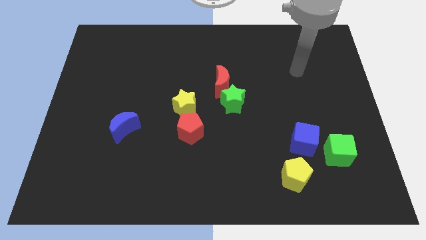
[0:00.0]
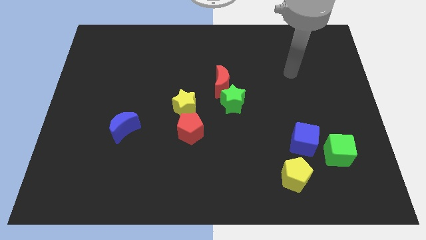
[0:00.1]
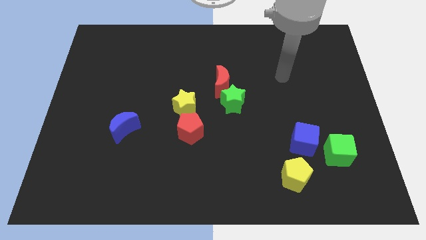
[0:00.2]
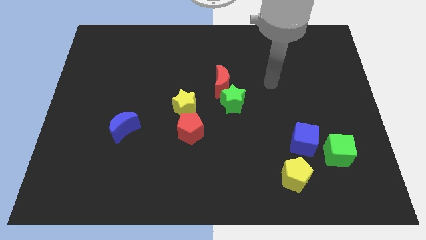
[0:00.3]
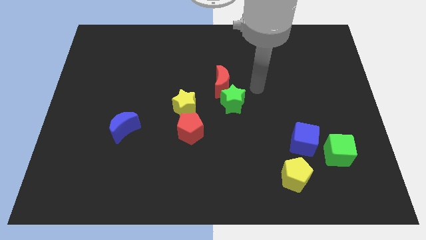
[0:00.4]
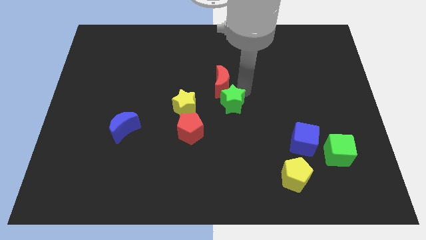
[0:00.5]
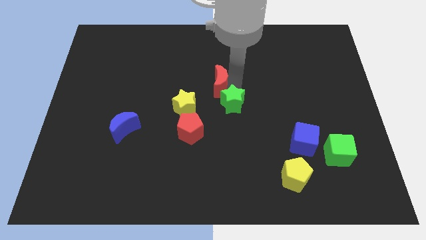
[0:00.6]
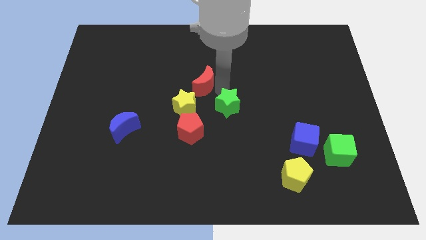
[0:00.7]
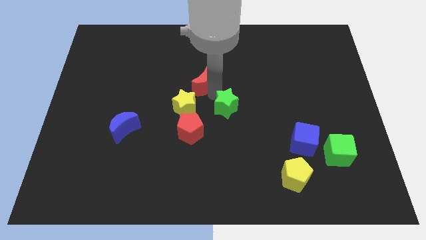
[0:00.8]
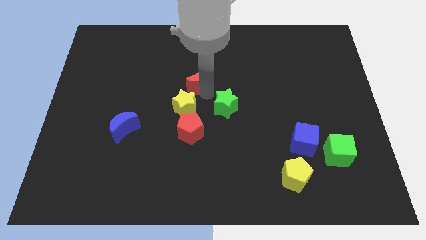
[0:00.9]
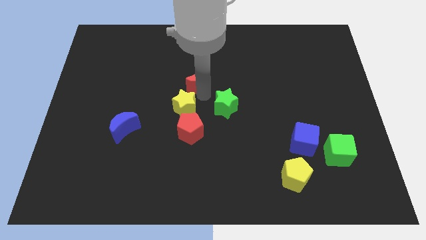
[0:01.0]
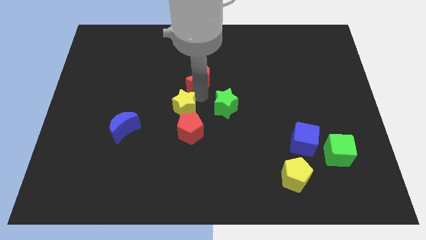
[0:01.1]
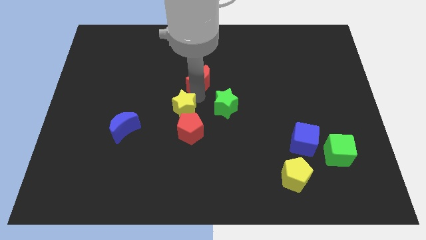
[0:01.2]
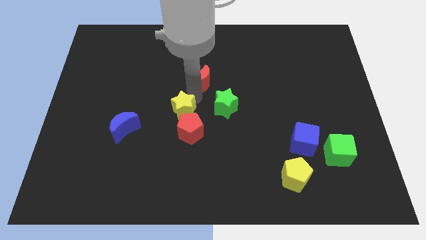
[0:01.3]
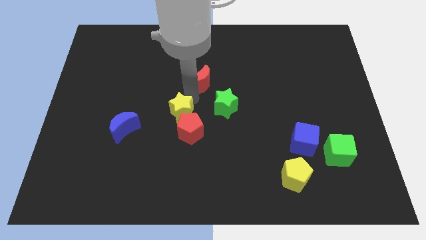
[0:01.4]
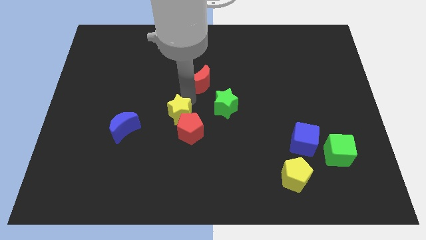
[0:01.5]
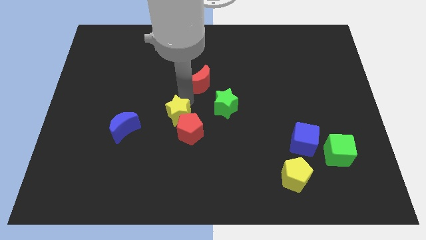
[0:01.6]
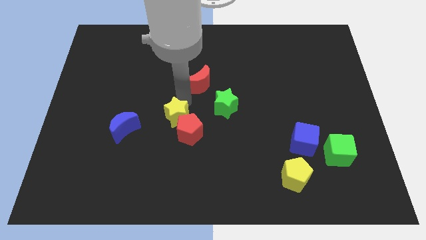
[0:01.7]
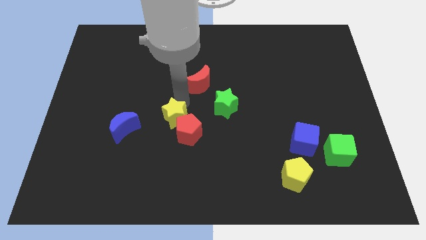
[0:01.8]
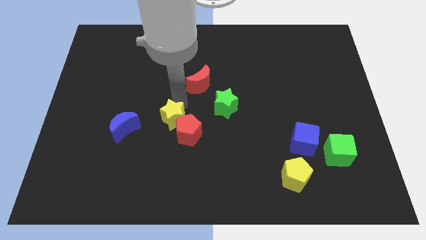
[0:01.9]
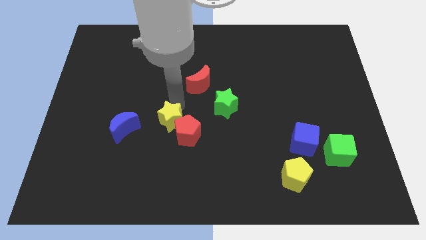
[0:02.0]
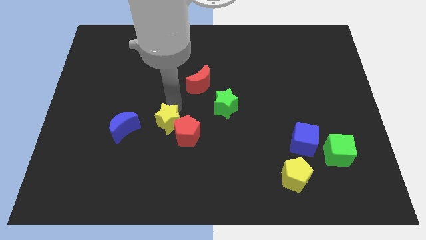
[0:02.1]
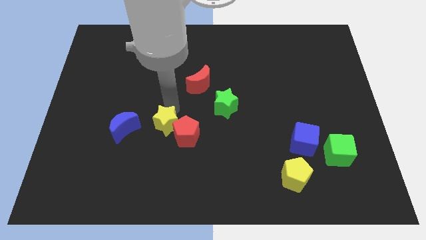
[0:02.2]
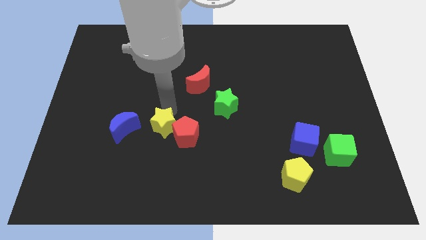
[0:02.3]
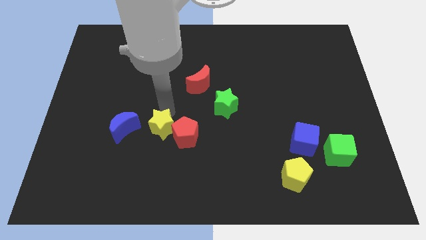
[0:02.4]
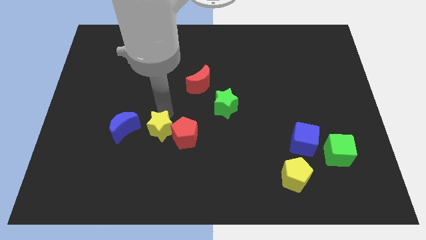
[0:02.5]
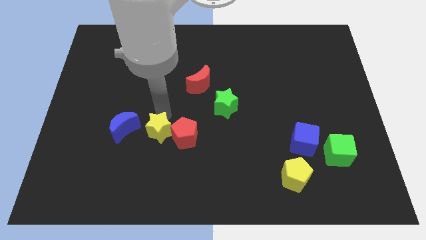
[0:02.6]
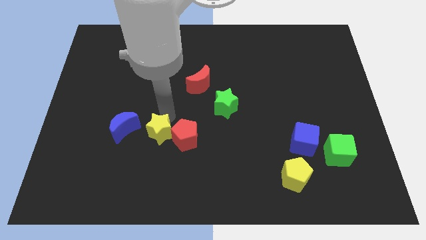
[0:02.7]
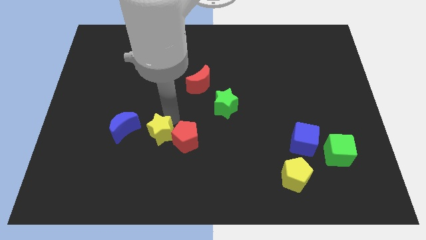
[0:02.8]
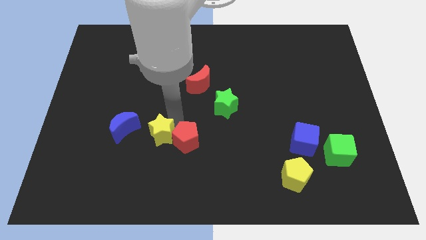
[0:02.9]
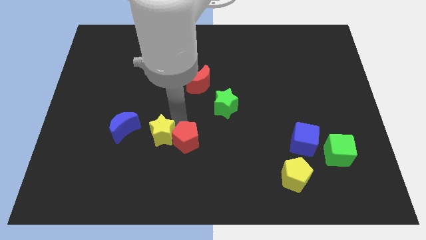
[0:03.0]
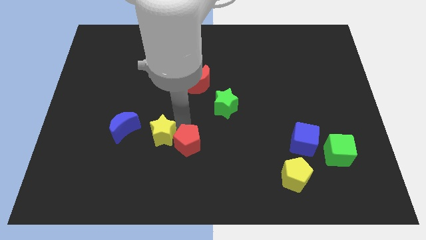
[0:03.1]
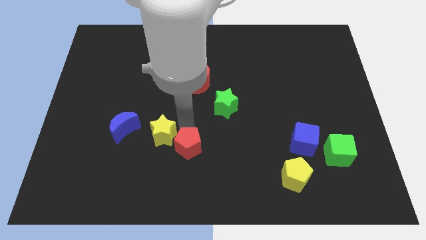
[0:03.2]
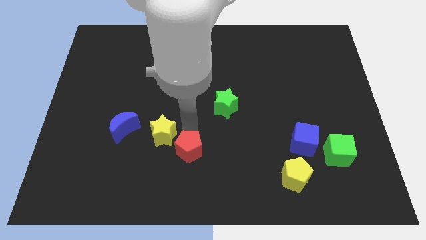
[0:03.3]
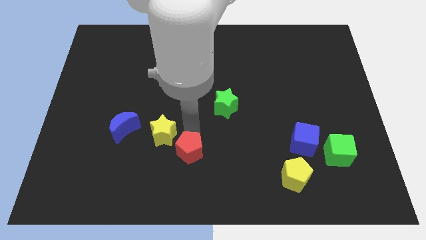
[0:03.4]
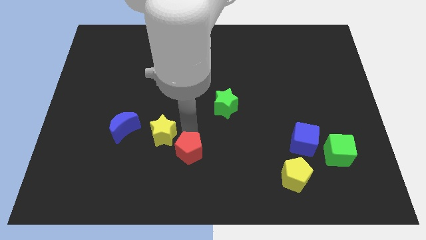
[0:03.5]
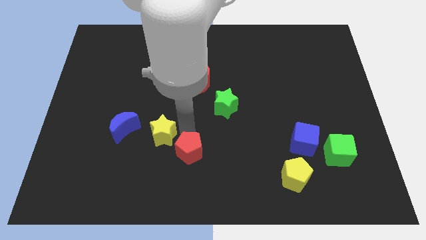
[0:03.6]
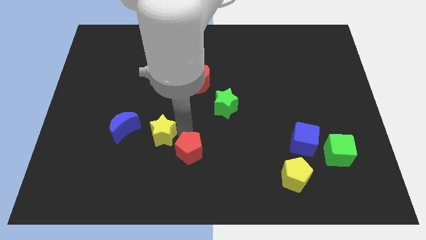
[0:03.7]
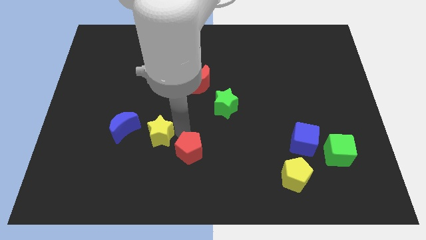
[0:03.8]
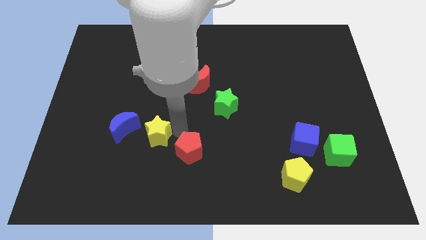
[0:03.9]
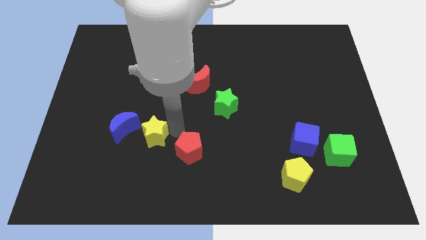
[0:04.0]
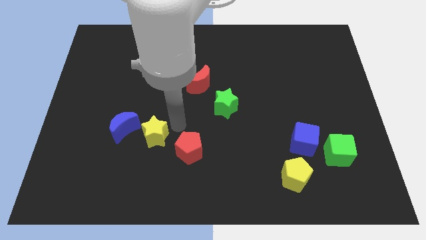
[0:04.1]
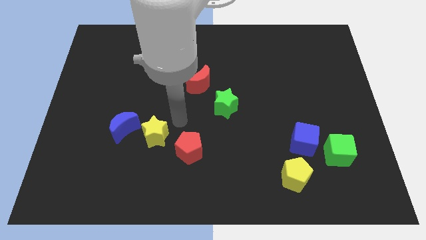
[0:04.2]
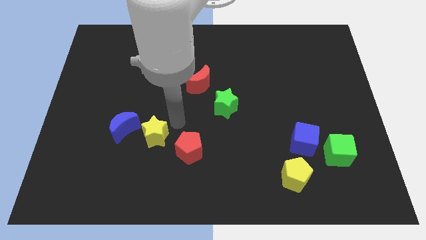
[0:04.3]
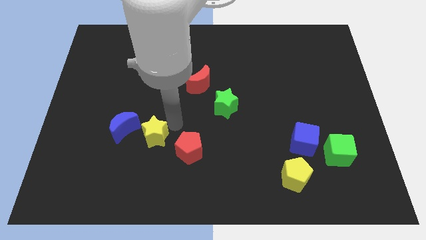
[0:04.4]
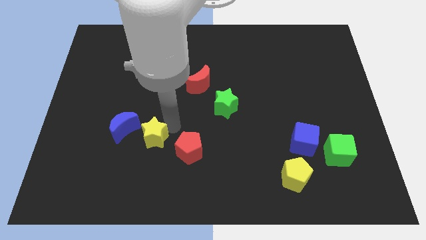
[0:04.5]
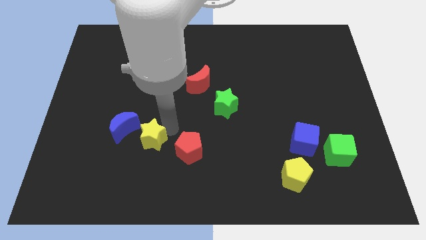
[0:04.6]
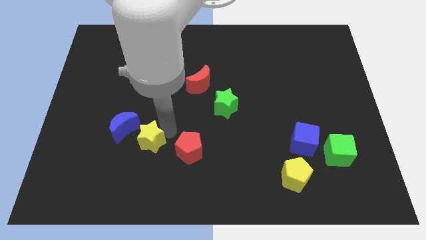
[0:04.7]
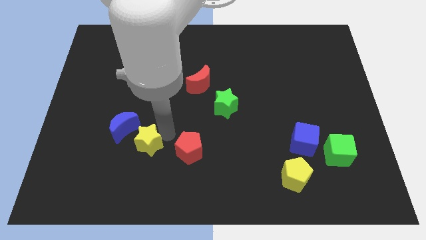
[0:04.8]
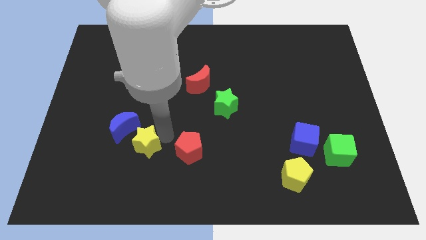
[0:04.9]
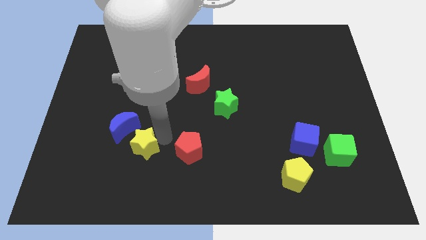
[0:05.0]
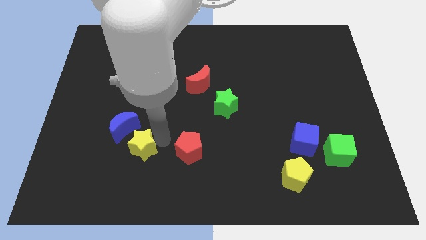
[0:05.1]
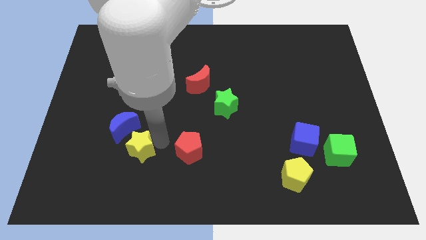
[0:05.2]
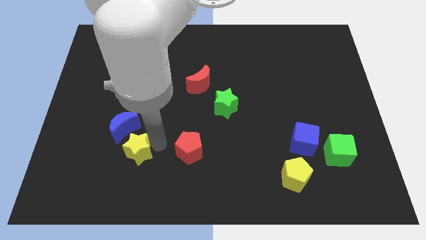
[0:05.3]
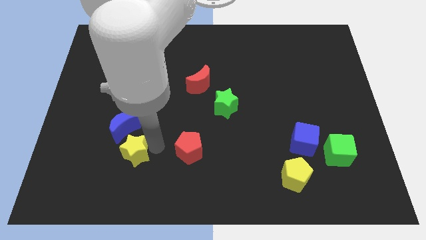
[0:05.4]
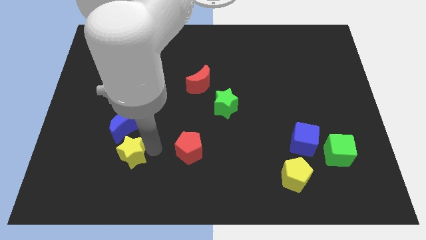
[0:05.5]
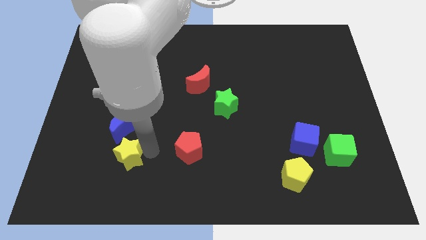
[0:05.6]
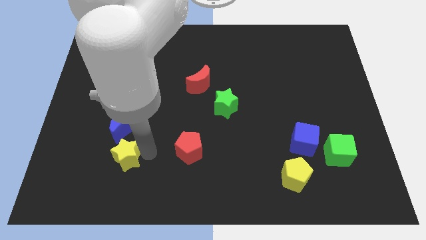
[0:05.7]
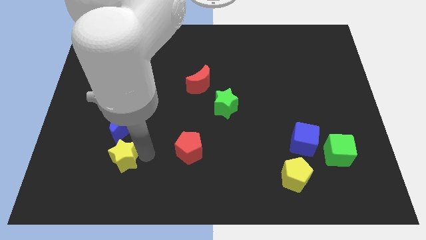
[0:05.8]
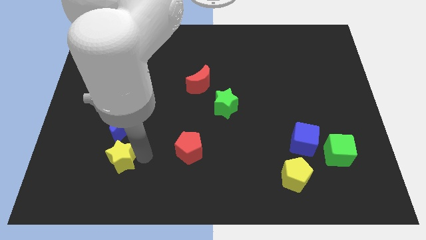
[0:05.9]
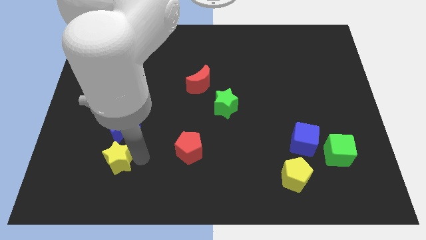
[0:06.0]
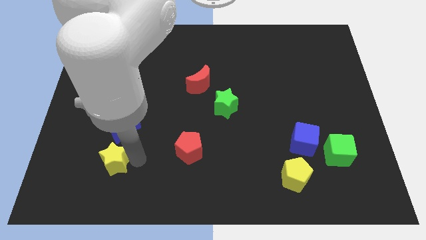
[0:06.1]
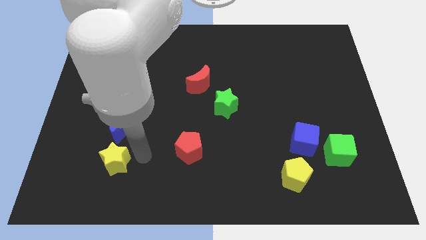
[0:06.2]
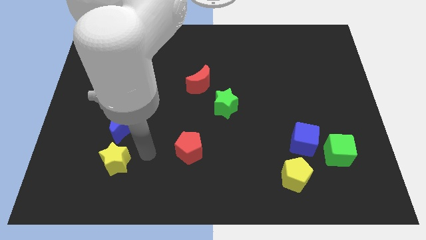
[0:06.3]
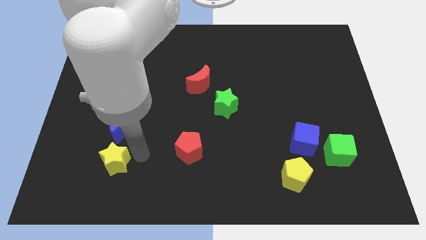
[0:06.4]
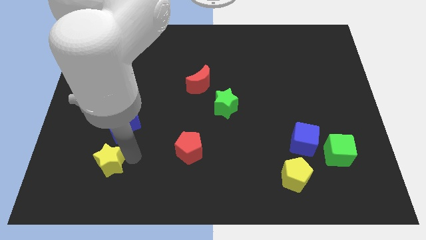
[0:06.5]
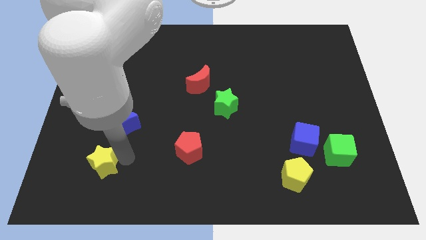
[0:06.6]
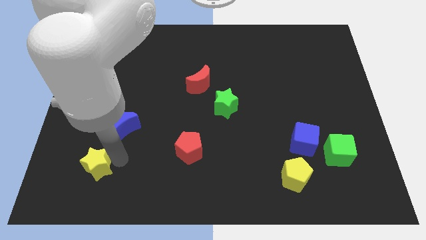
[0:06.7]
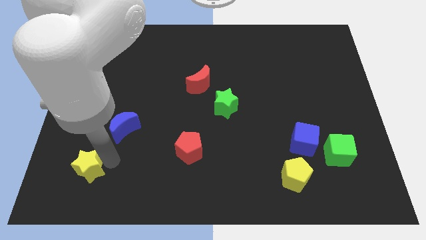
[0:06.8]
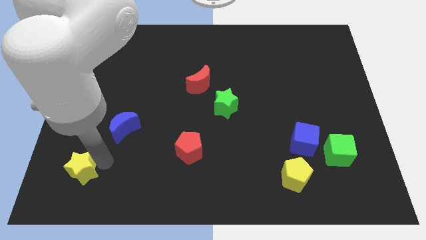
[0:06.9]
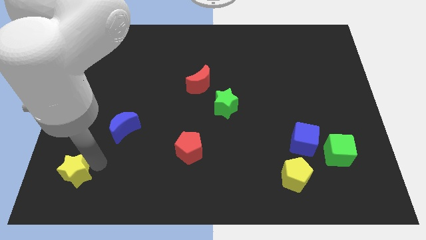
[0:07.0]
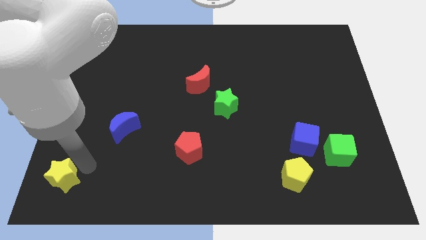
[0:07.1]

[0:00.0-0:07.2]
put the yellow star to the bottom left
